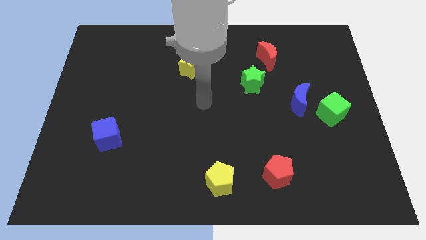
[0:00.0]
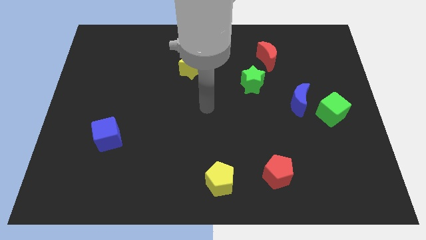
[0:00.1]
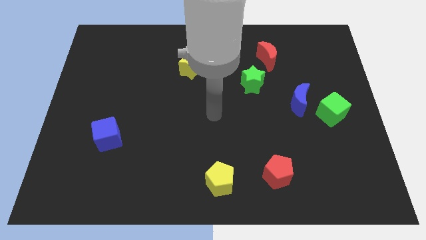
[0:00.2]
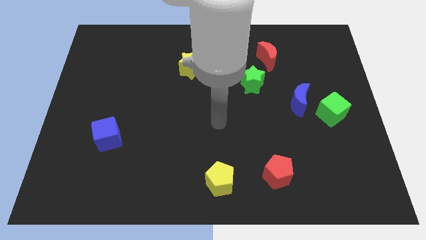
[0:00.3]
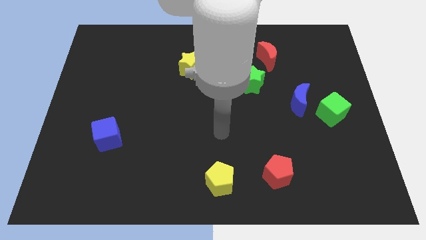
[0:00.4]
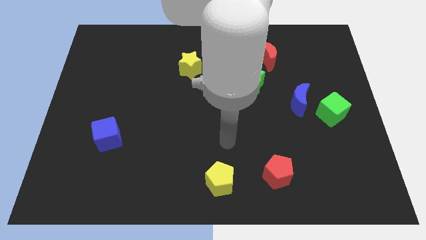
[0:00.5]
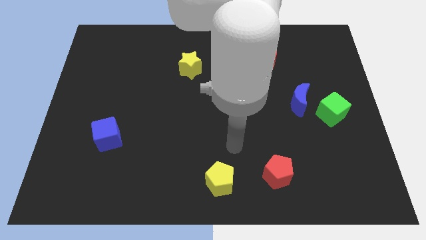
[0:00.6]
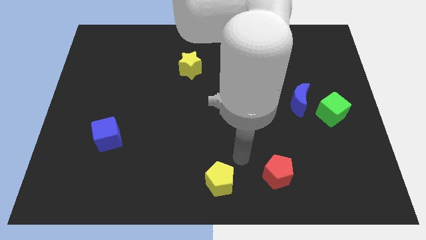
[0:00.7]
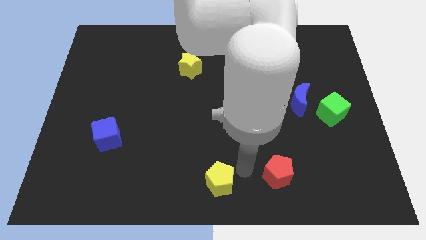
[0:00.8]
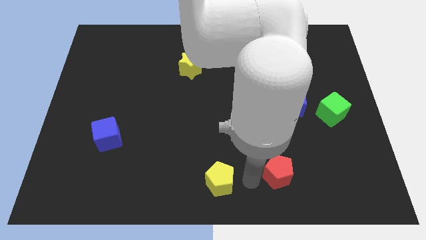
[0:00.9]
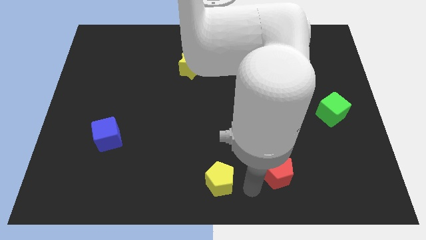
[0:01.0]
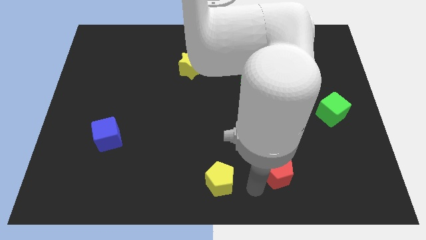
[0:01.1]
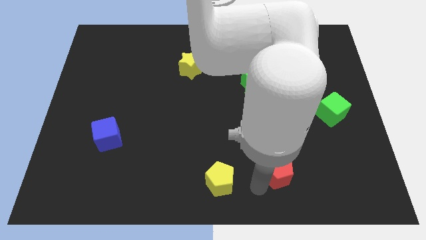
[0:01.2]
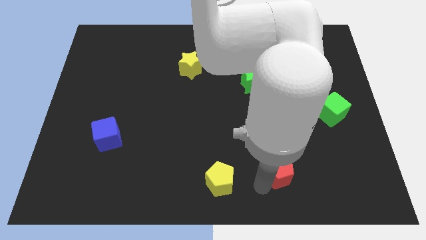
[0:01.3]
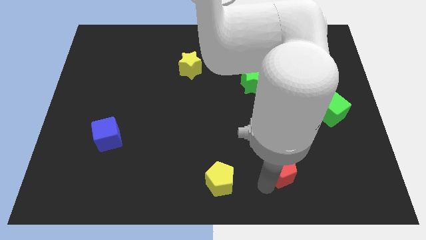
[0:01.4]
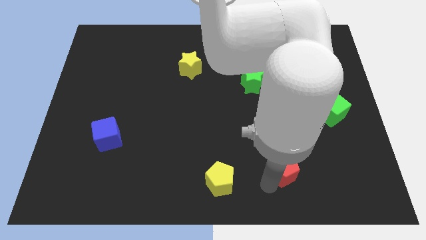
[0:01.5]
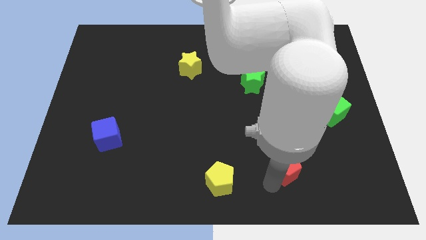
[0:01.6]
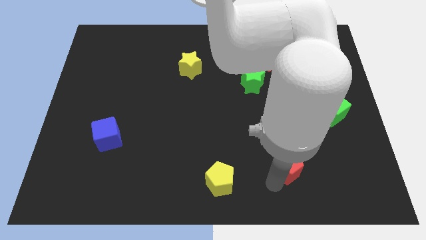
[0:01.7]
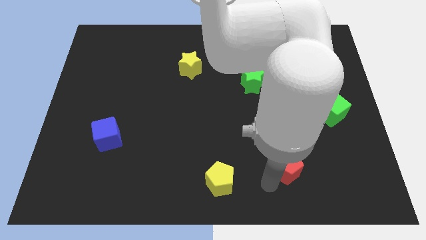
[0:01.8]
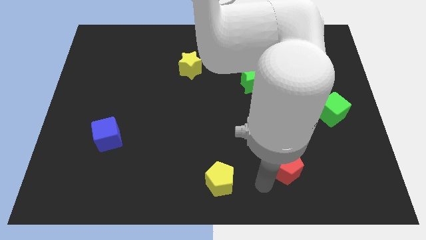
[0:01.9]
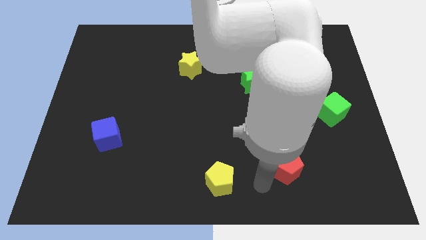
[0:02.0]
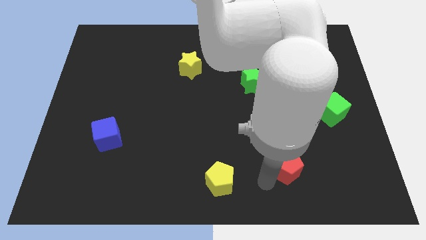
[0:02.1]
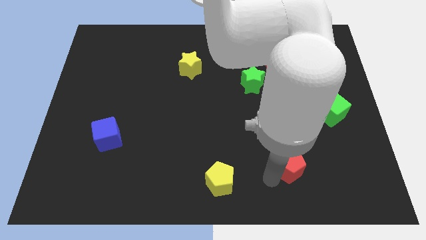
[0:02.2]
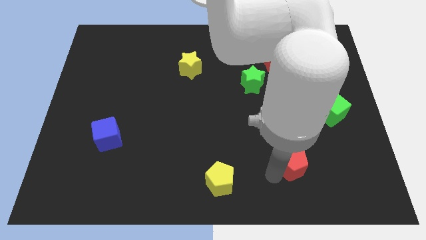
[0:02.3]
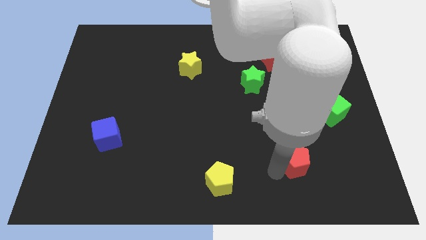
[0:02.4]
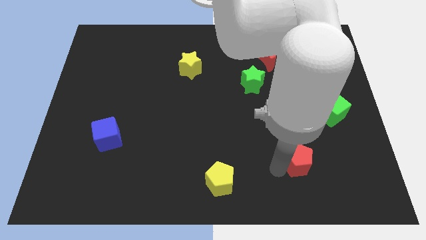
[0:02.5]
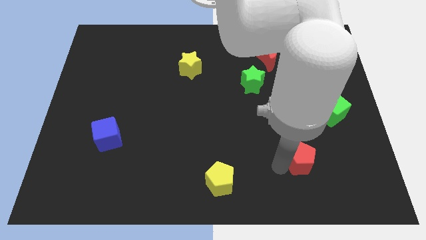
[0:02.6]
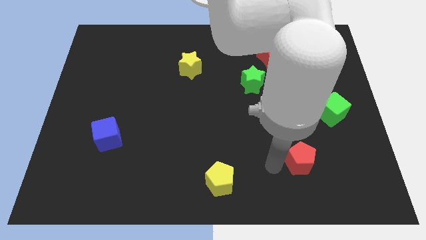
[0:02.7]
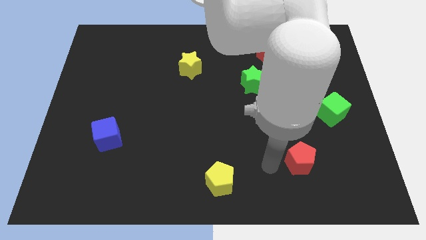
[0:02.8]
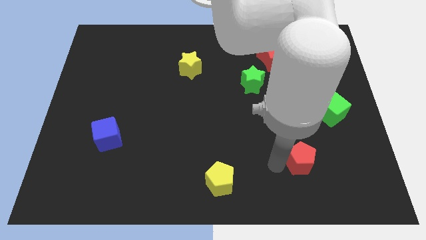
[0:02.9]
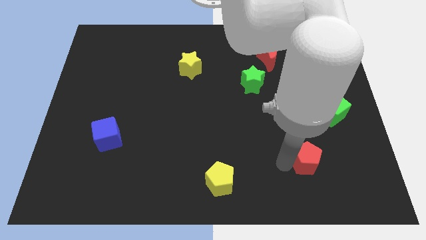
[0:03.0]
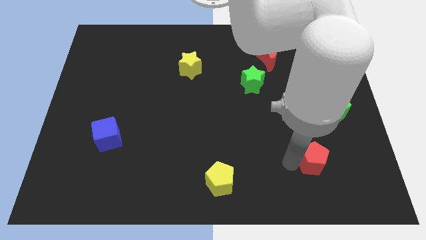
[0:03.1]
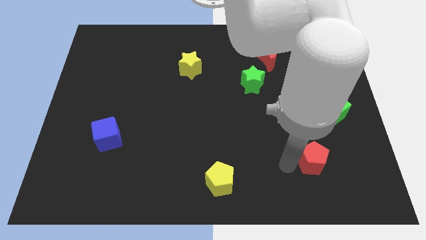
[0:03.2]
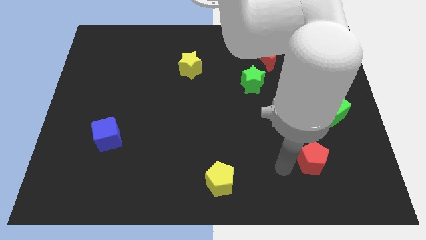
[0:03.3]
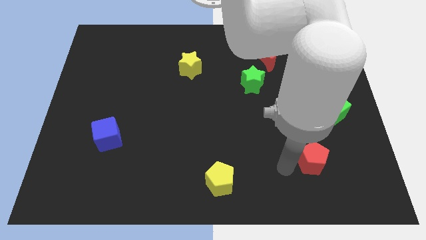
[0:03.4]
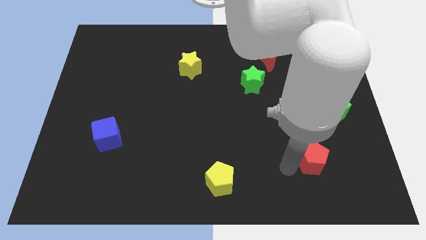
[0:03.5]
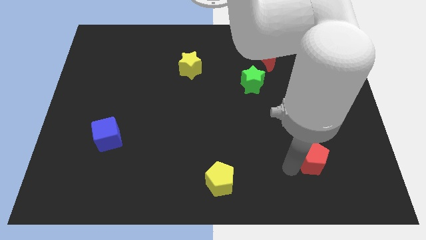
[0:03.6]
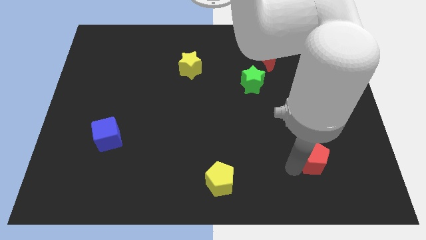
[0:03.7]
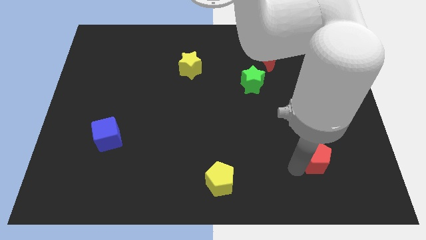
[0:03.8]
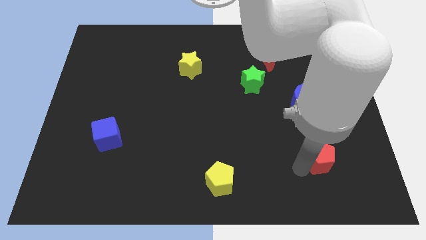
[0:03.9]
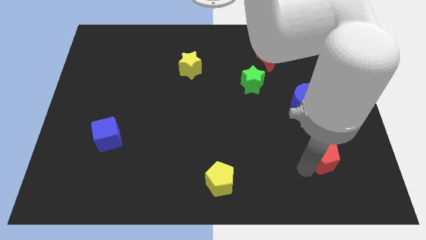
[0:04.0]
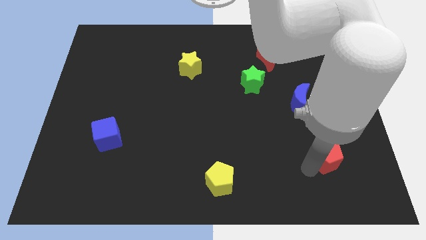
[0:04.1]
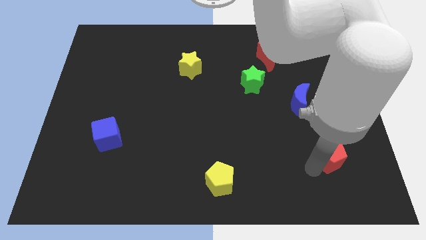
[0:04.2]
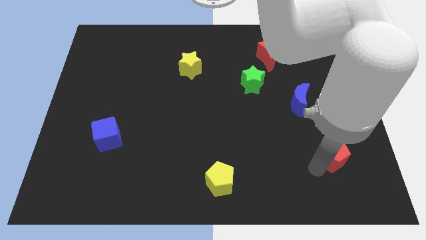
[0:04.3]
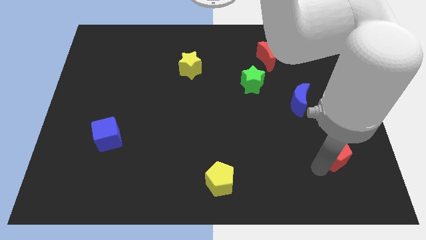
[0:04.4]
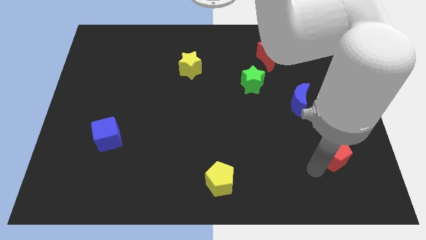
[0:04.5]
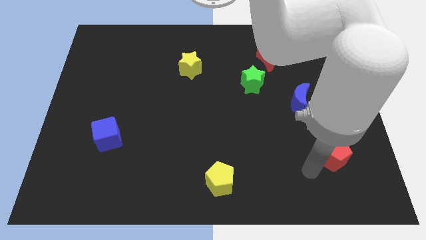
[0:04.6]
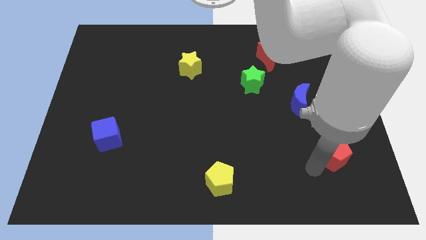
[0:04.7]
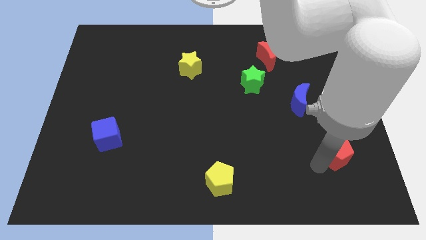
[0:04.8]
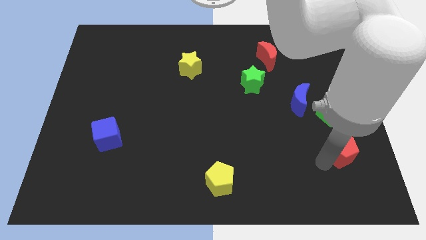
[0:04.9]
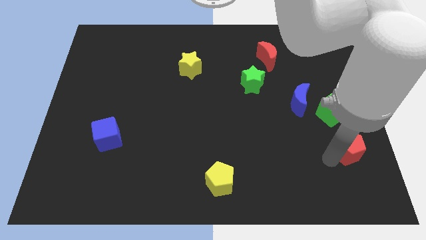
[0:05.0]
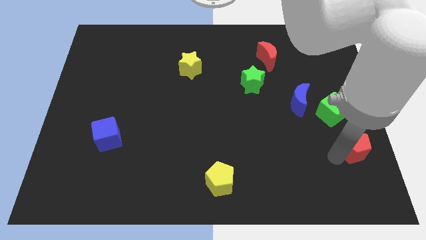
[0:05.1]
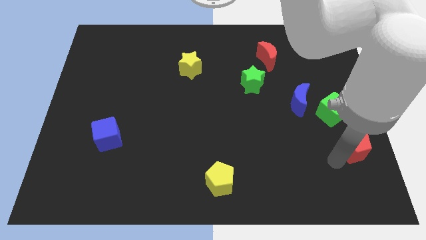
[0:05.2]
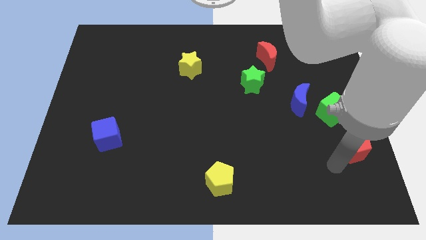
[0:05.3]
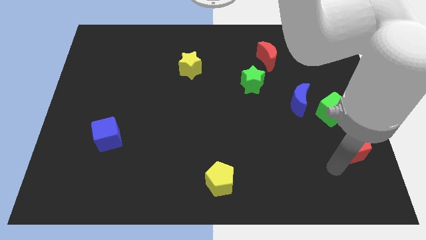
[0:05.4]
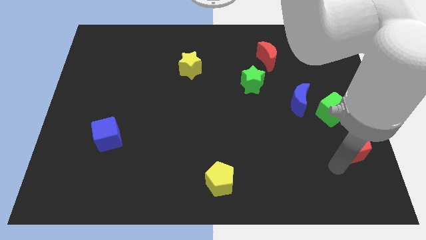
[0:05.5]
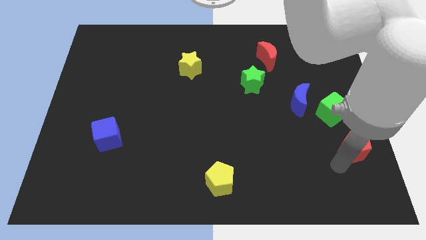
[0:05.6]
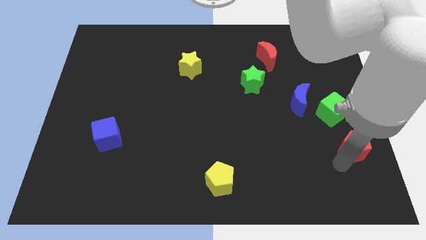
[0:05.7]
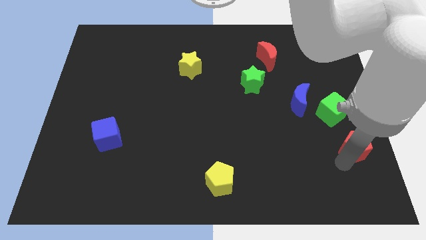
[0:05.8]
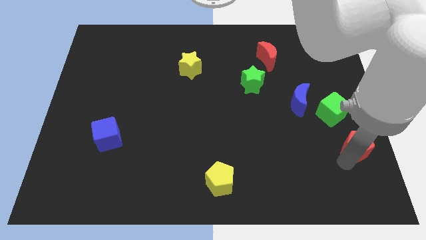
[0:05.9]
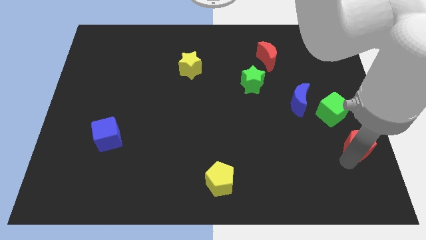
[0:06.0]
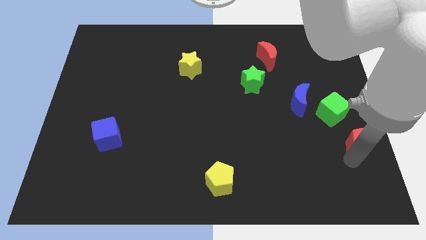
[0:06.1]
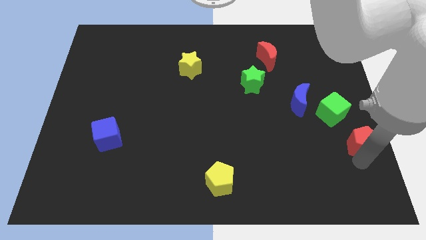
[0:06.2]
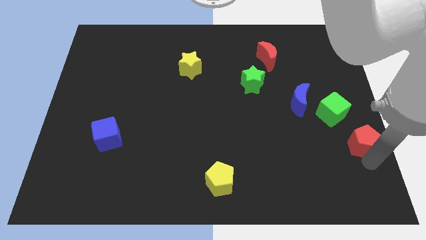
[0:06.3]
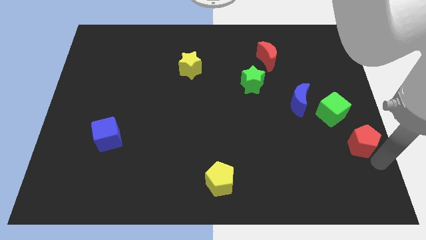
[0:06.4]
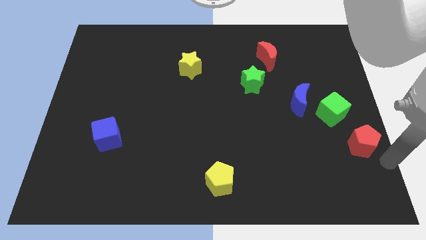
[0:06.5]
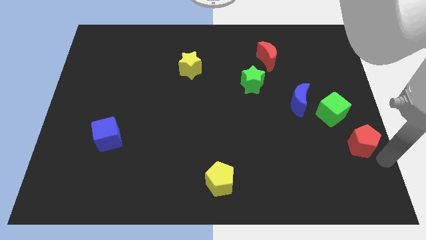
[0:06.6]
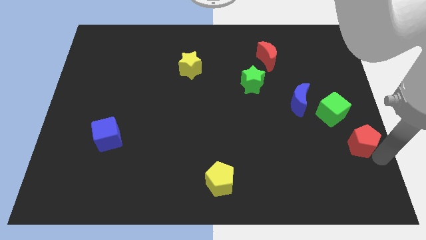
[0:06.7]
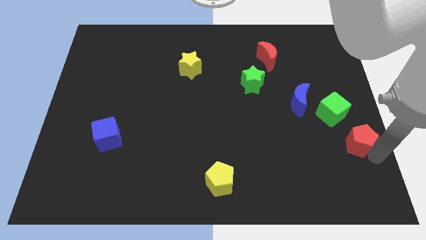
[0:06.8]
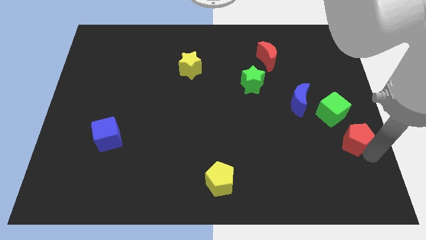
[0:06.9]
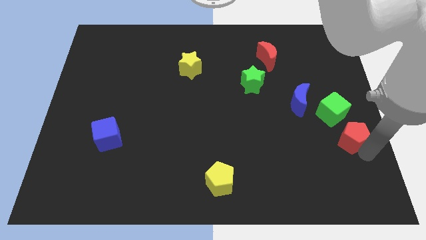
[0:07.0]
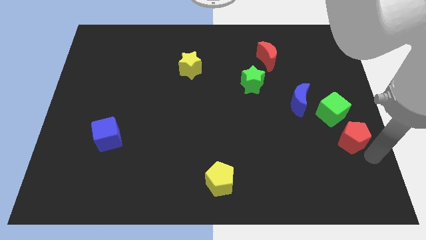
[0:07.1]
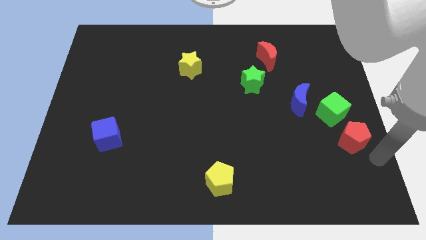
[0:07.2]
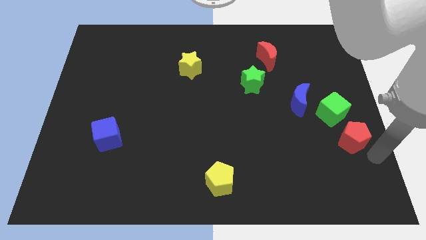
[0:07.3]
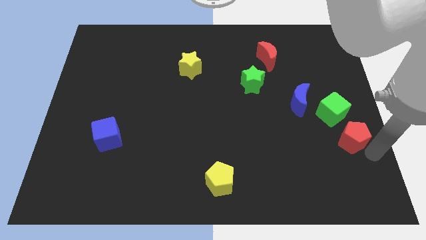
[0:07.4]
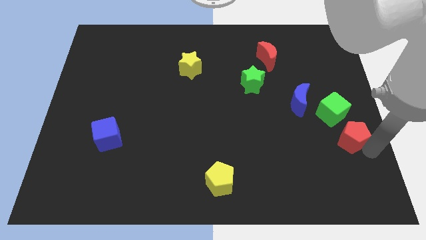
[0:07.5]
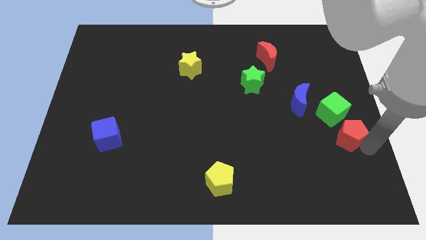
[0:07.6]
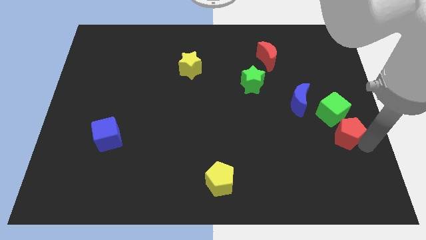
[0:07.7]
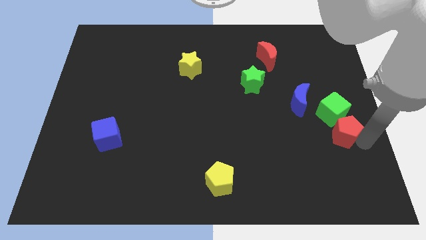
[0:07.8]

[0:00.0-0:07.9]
move the red pentagon to the bottom right side of the blue moon
